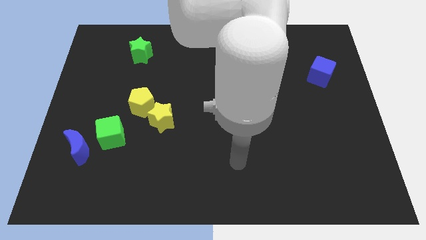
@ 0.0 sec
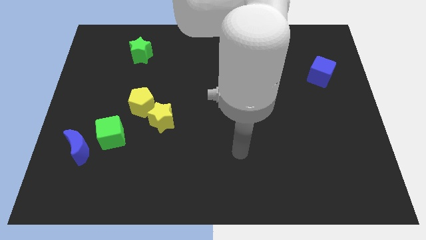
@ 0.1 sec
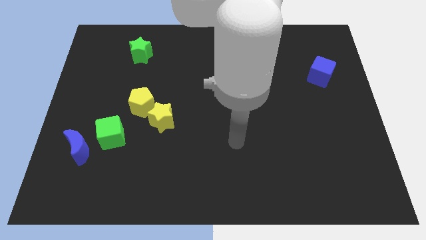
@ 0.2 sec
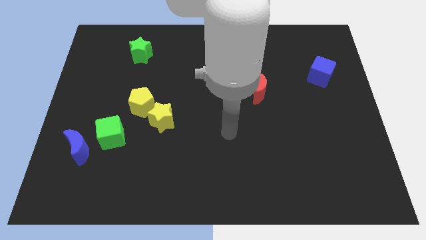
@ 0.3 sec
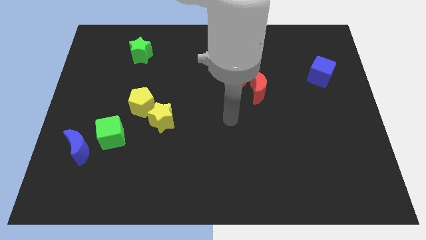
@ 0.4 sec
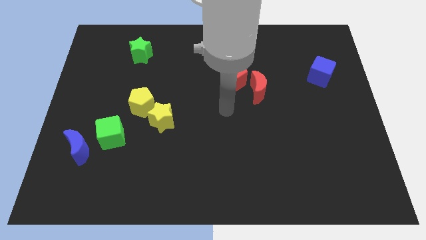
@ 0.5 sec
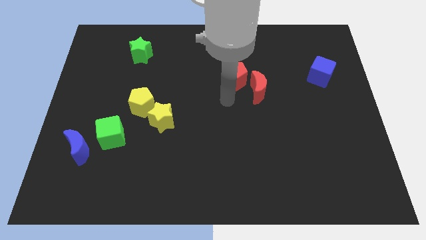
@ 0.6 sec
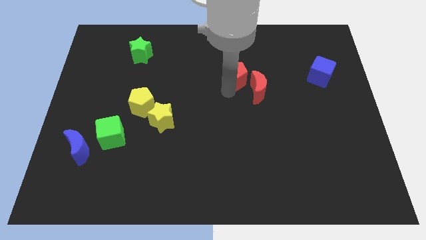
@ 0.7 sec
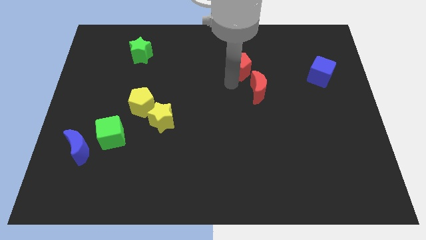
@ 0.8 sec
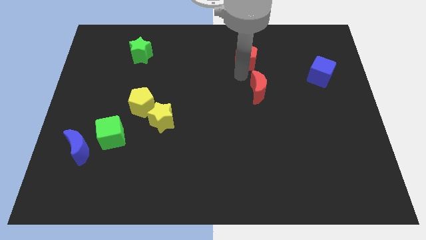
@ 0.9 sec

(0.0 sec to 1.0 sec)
pull the red moon apart from the red pentagon

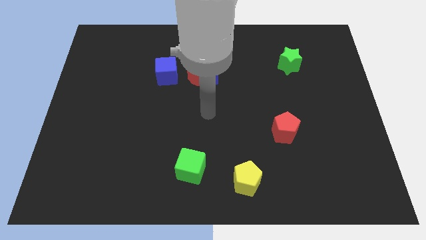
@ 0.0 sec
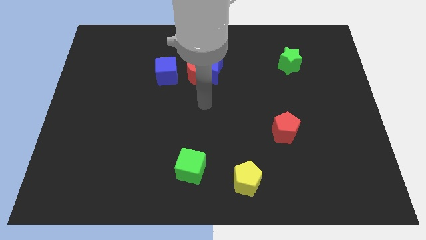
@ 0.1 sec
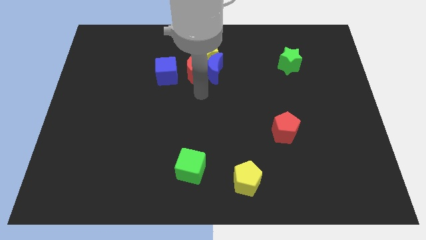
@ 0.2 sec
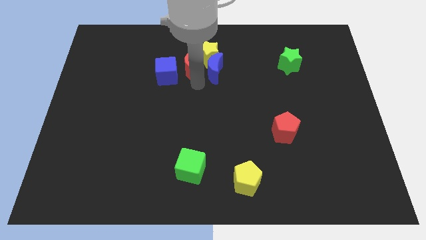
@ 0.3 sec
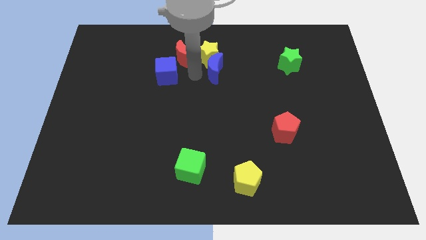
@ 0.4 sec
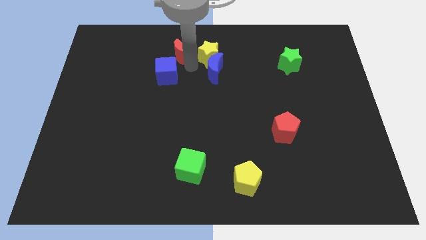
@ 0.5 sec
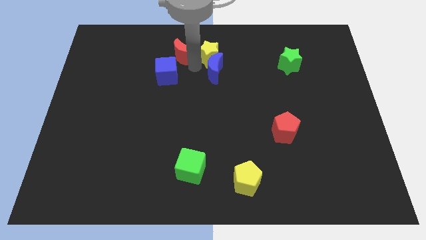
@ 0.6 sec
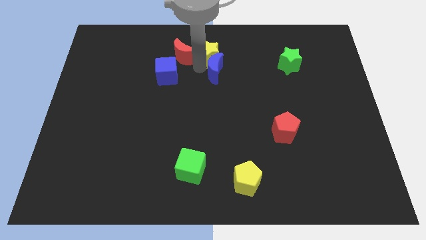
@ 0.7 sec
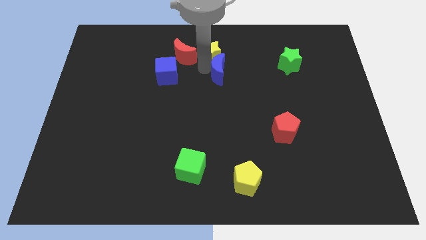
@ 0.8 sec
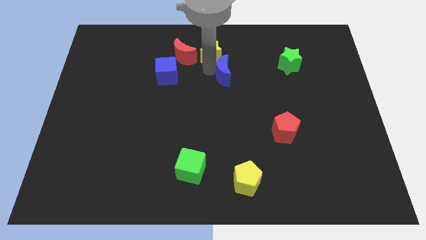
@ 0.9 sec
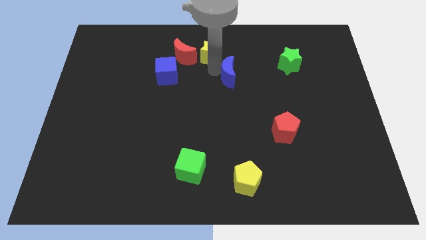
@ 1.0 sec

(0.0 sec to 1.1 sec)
separate the blue moon from the yellow star and red moon

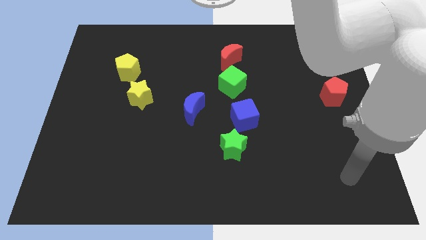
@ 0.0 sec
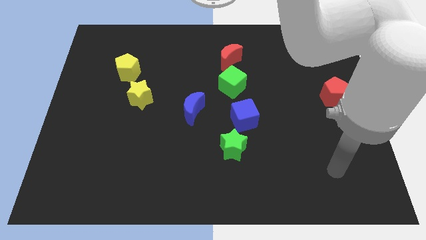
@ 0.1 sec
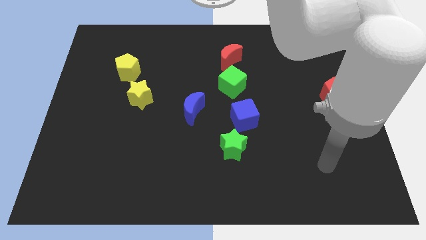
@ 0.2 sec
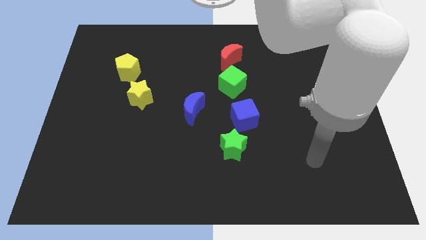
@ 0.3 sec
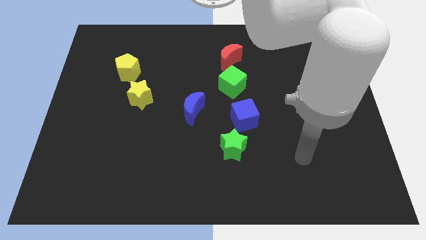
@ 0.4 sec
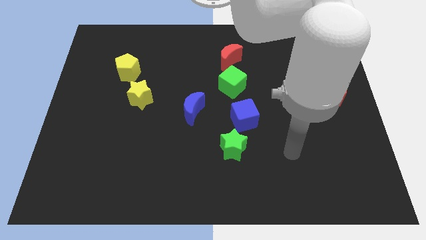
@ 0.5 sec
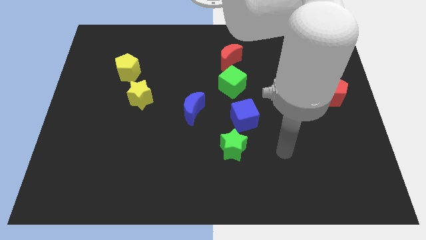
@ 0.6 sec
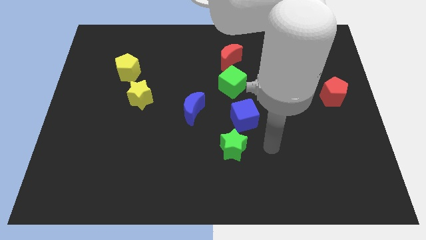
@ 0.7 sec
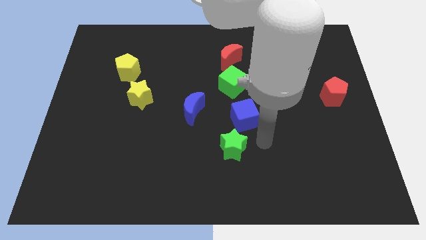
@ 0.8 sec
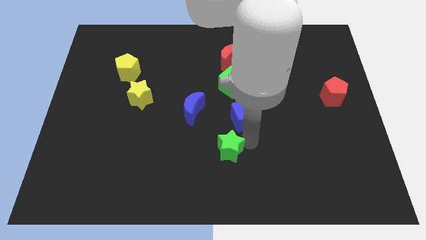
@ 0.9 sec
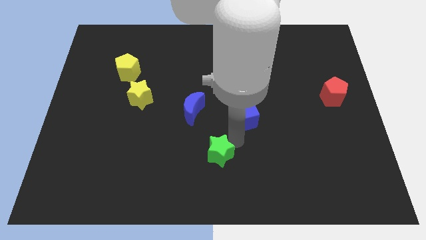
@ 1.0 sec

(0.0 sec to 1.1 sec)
pull the blue cube apart from the green star

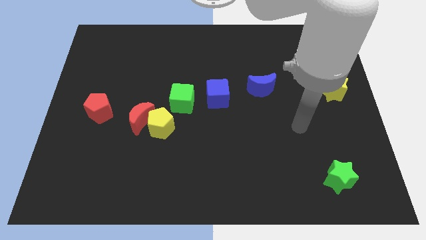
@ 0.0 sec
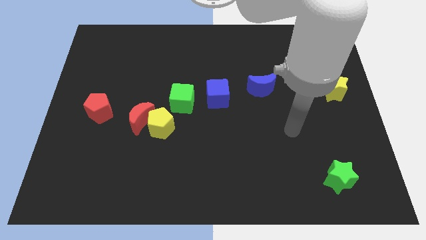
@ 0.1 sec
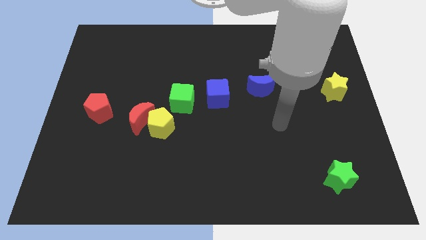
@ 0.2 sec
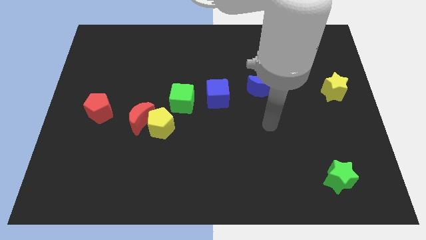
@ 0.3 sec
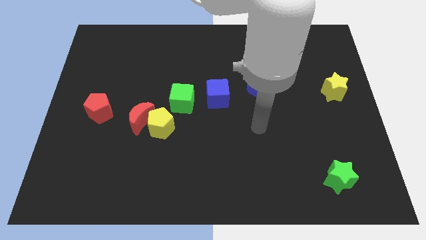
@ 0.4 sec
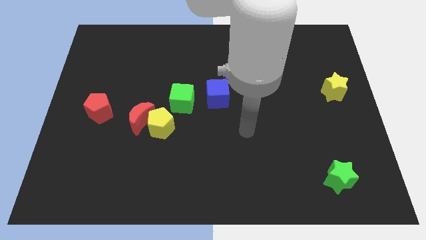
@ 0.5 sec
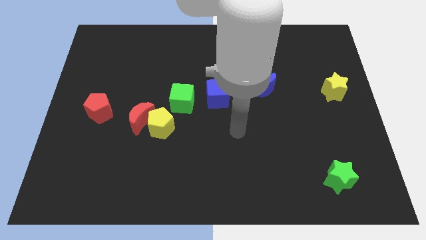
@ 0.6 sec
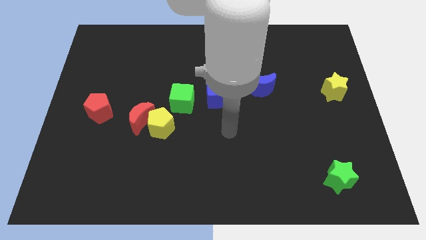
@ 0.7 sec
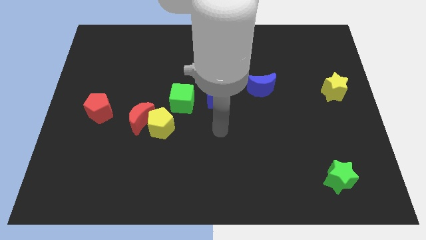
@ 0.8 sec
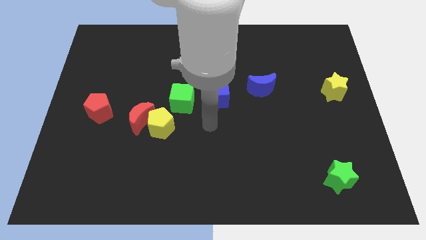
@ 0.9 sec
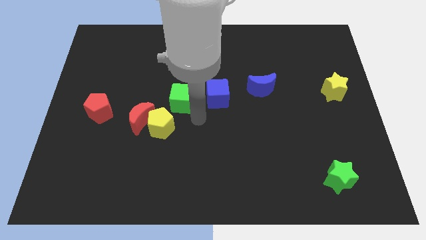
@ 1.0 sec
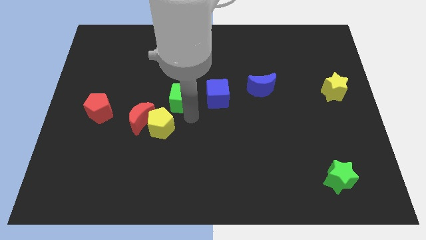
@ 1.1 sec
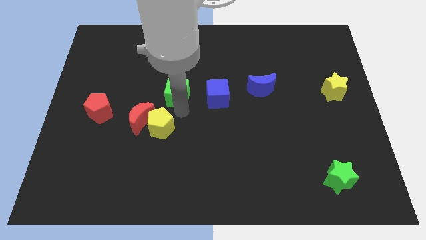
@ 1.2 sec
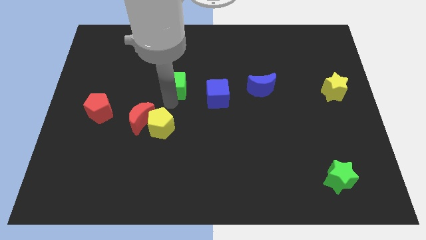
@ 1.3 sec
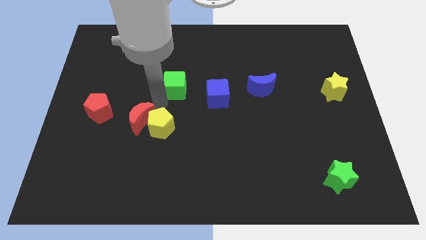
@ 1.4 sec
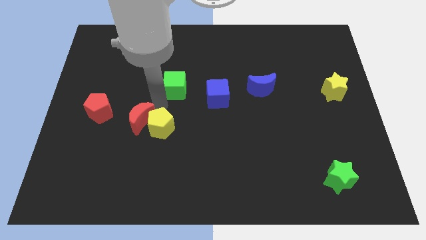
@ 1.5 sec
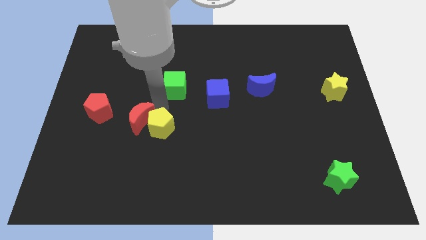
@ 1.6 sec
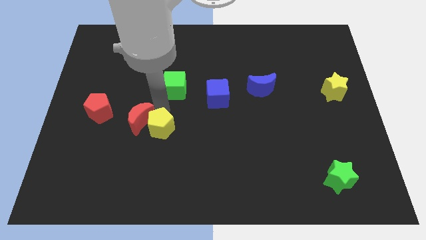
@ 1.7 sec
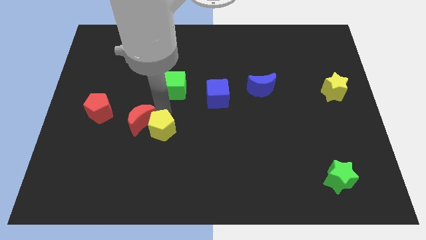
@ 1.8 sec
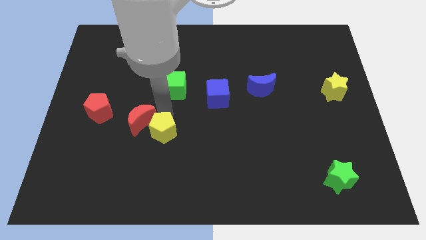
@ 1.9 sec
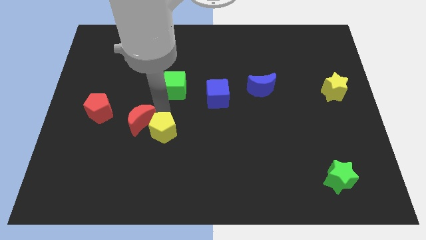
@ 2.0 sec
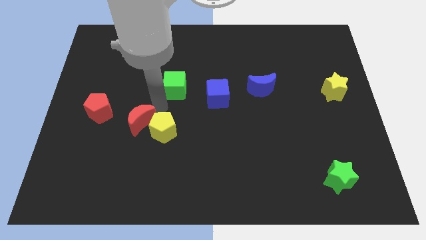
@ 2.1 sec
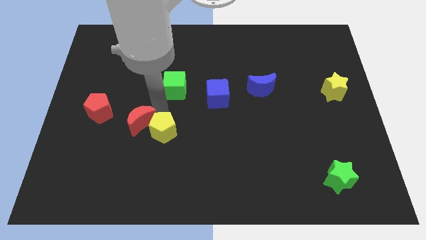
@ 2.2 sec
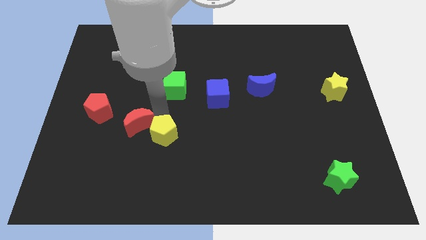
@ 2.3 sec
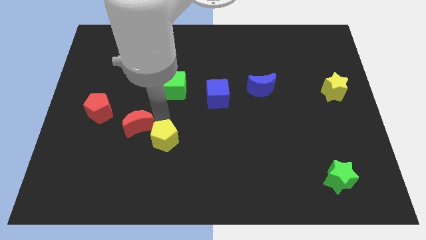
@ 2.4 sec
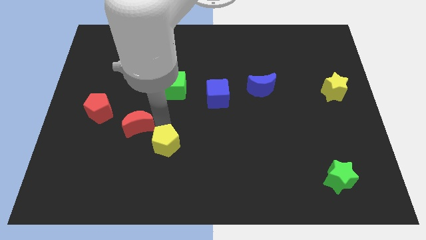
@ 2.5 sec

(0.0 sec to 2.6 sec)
move the yellow pentagon away from the red moon and green cube

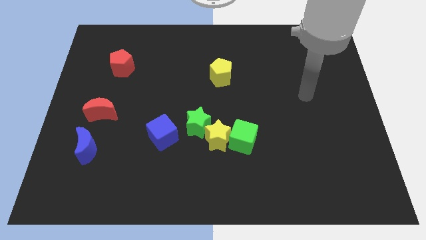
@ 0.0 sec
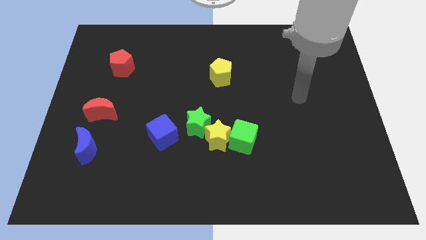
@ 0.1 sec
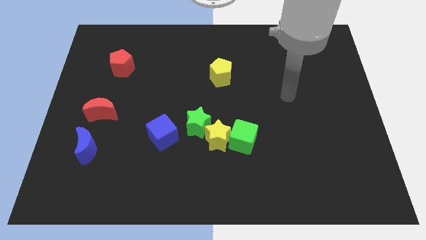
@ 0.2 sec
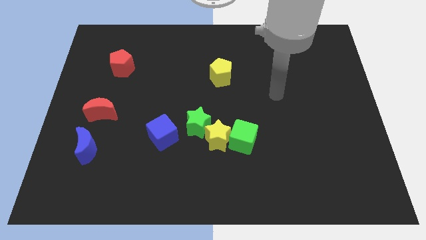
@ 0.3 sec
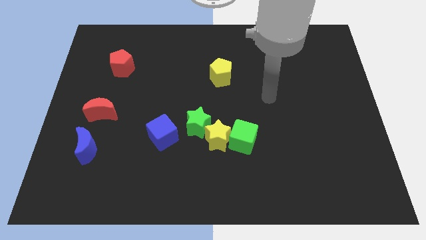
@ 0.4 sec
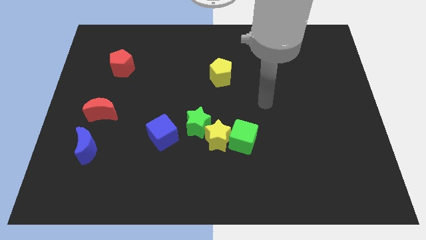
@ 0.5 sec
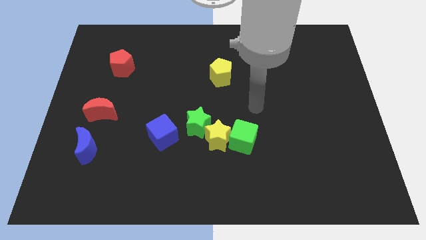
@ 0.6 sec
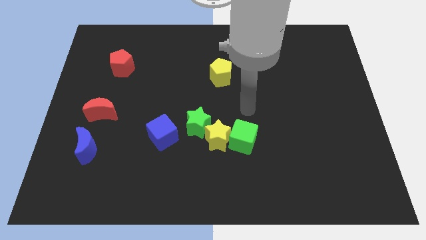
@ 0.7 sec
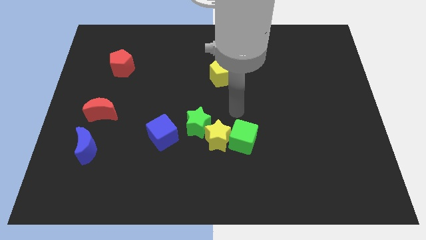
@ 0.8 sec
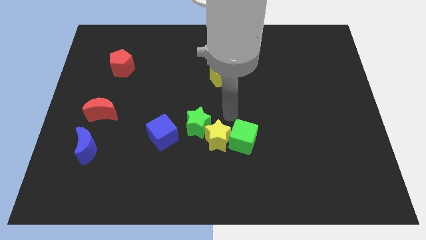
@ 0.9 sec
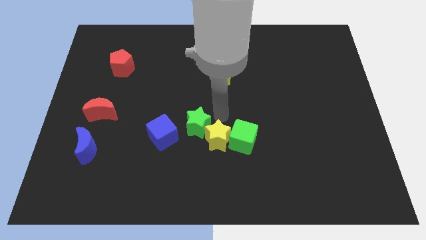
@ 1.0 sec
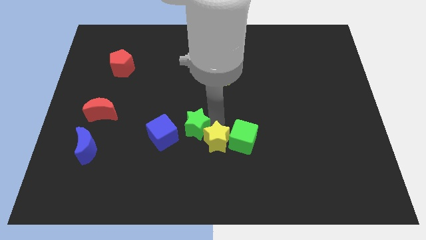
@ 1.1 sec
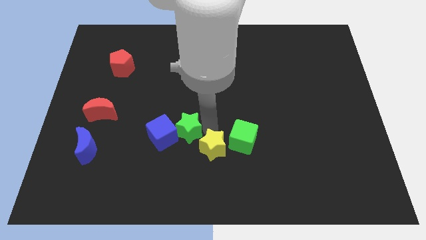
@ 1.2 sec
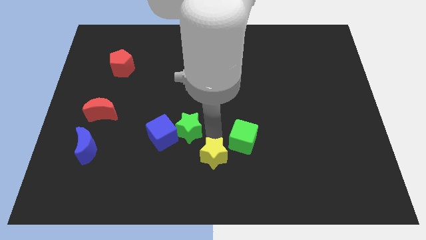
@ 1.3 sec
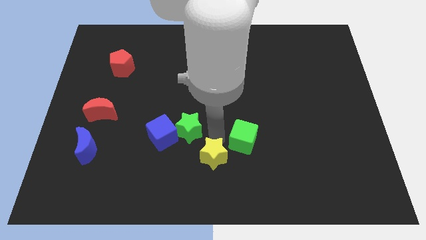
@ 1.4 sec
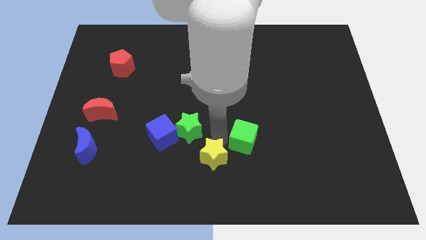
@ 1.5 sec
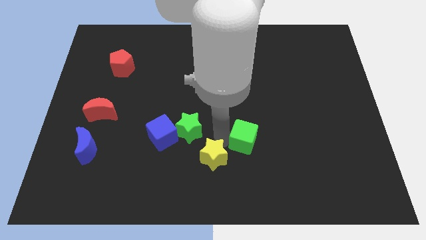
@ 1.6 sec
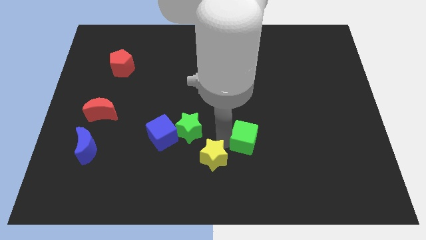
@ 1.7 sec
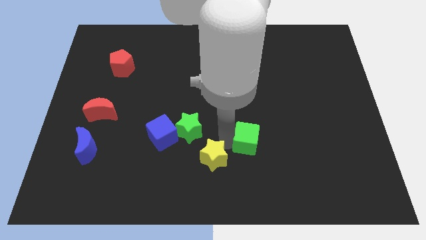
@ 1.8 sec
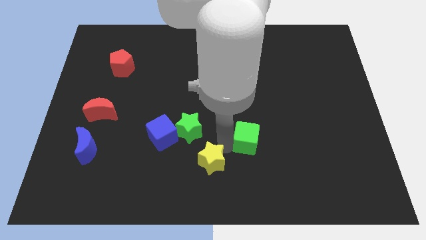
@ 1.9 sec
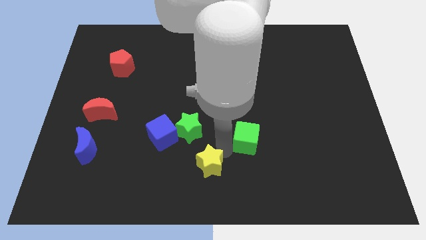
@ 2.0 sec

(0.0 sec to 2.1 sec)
move the green cube away from the yellow star

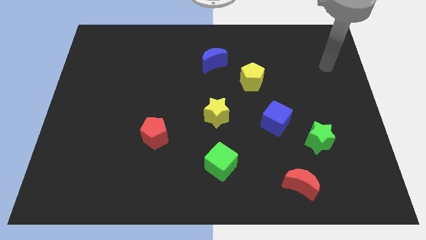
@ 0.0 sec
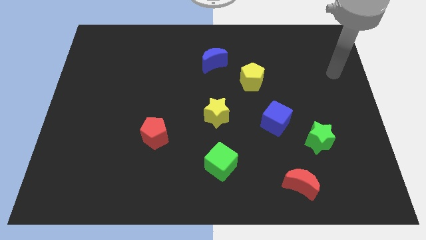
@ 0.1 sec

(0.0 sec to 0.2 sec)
move the blue cube away from the green star

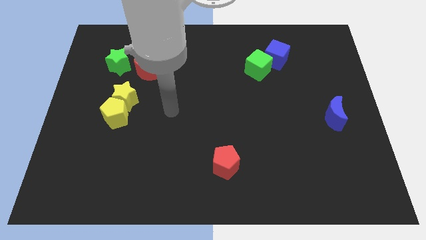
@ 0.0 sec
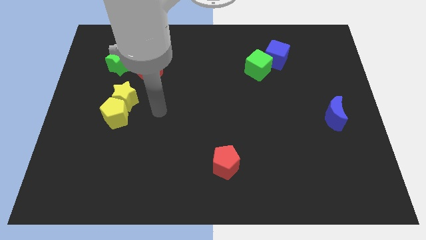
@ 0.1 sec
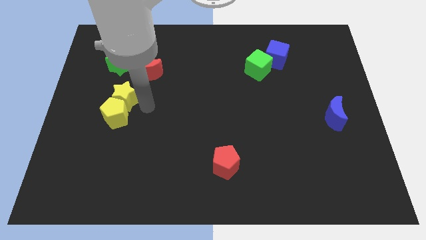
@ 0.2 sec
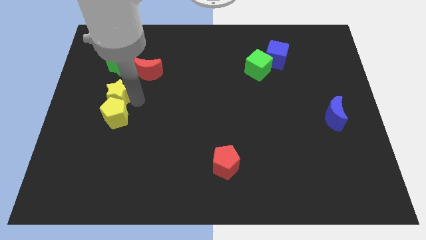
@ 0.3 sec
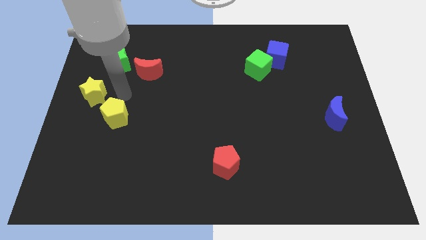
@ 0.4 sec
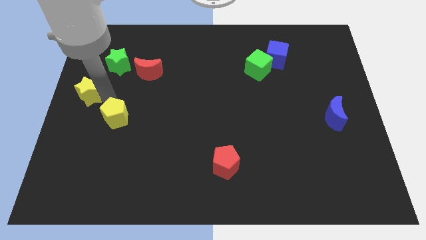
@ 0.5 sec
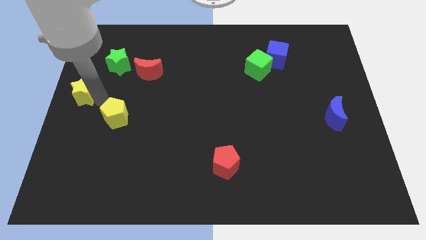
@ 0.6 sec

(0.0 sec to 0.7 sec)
move the yellow pentagon away from the yellow star

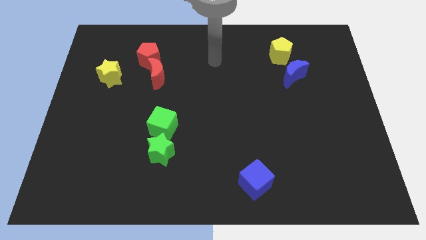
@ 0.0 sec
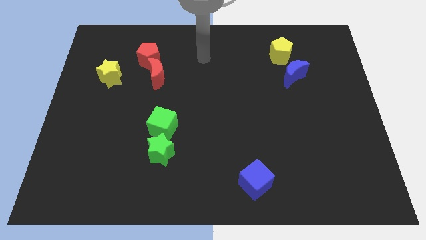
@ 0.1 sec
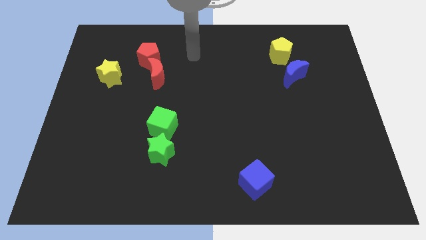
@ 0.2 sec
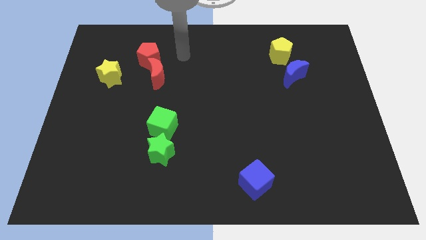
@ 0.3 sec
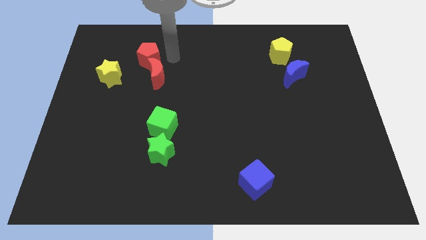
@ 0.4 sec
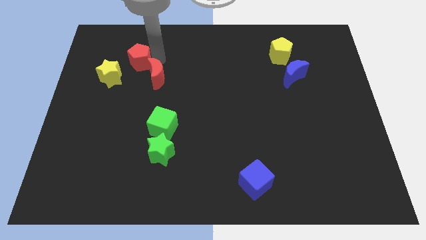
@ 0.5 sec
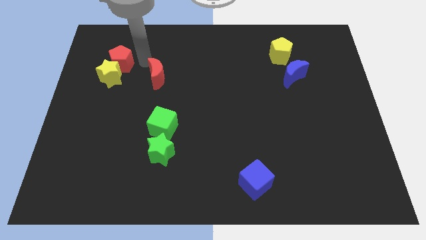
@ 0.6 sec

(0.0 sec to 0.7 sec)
move the red moon away from the red pentagon
